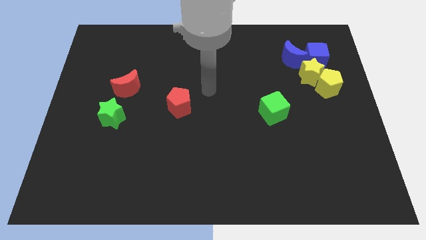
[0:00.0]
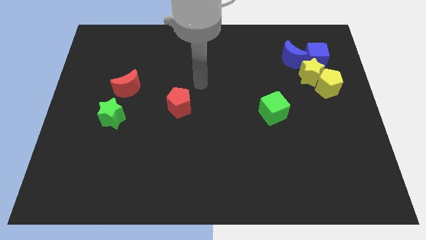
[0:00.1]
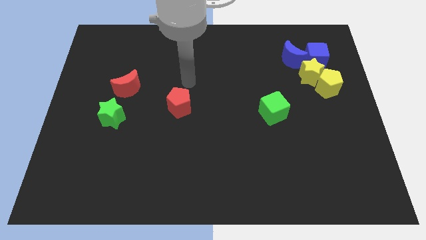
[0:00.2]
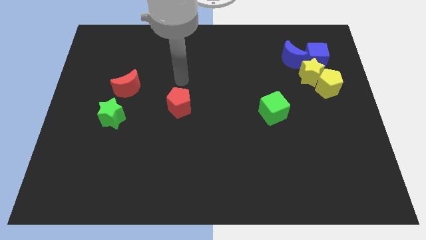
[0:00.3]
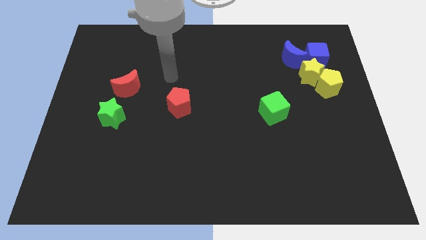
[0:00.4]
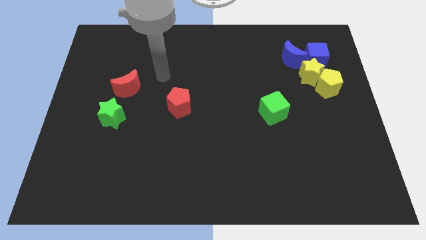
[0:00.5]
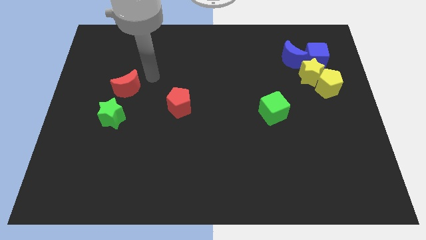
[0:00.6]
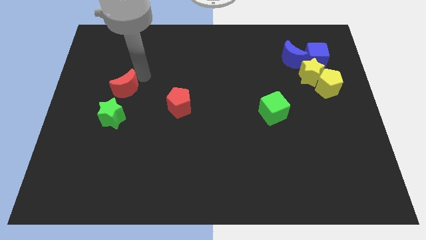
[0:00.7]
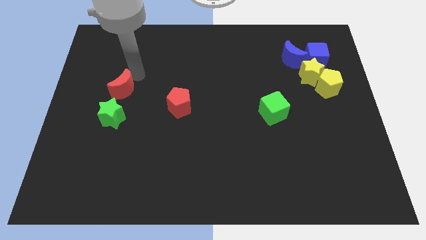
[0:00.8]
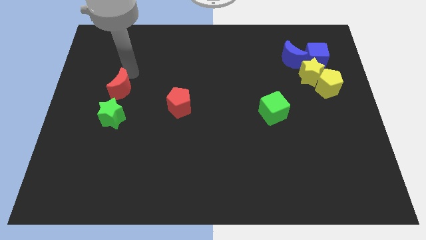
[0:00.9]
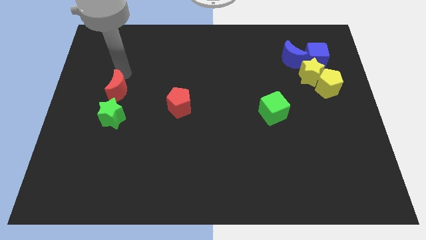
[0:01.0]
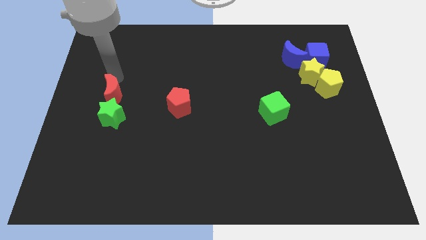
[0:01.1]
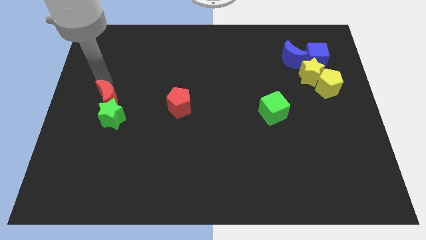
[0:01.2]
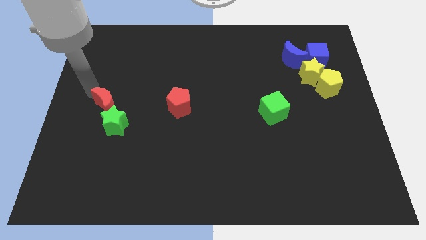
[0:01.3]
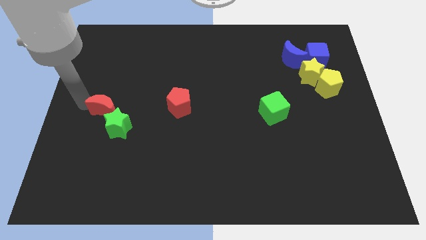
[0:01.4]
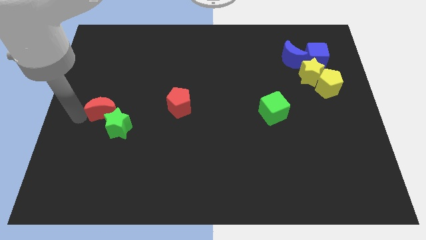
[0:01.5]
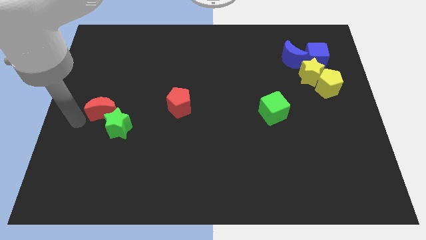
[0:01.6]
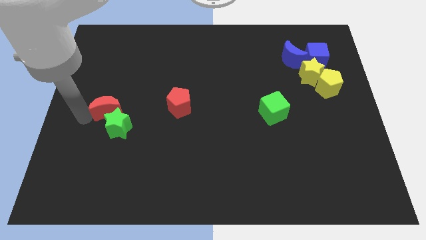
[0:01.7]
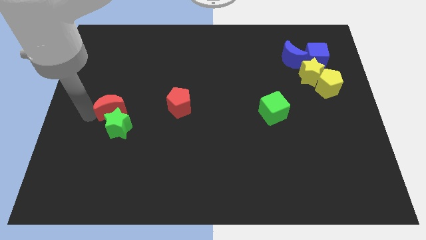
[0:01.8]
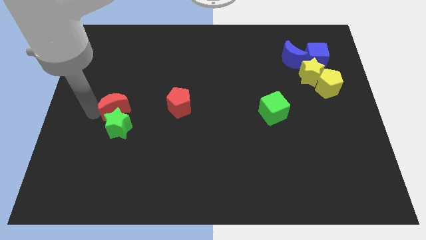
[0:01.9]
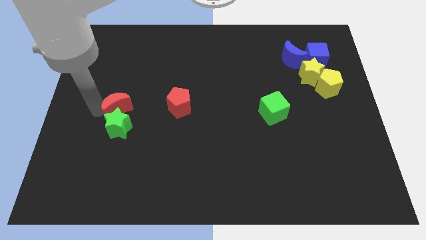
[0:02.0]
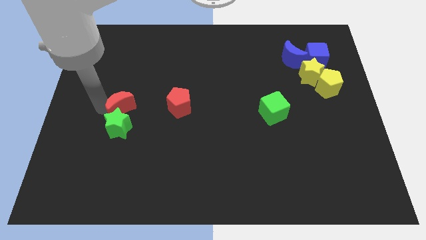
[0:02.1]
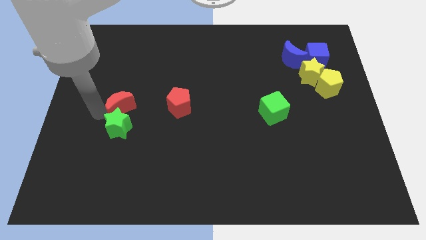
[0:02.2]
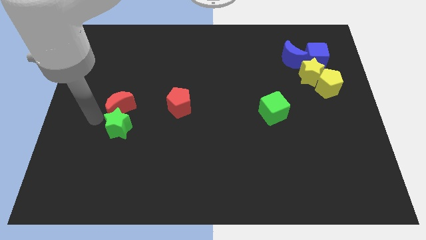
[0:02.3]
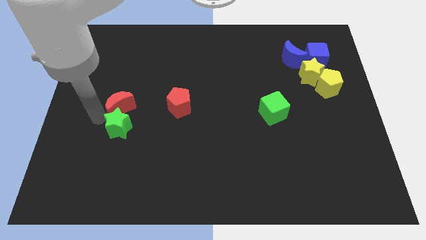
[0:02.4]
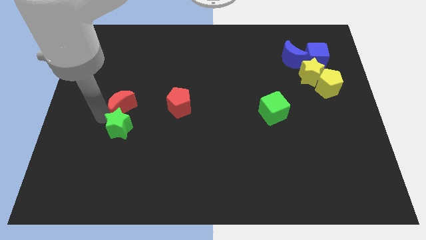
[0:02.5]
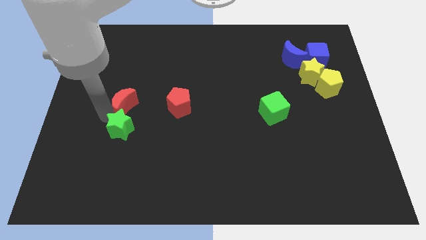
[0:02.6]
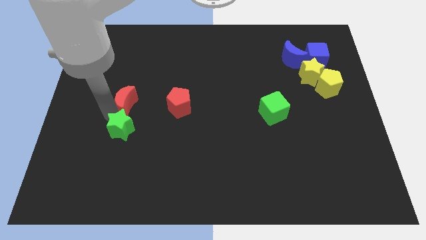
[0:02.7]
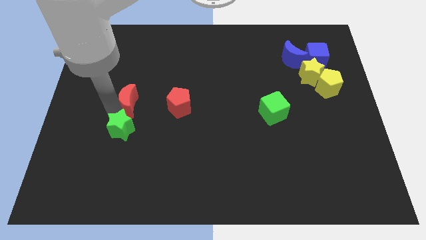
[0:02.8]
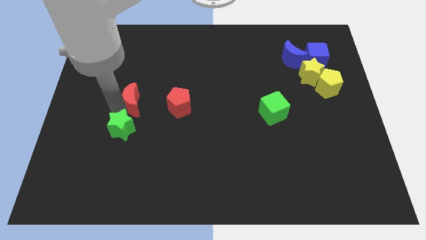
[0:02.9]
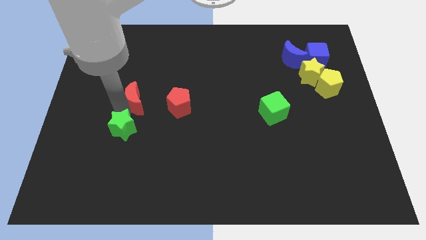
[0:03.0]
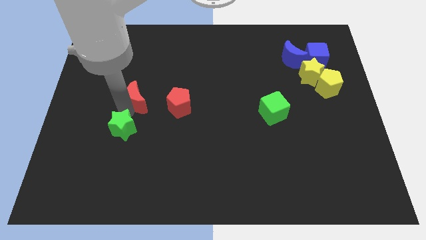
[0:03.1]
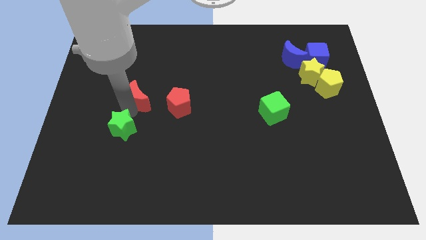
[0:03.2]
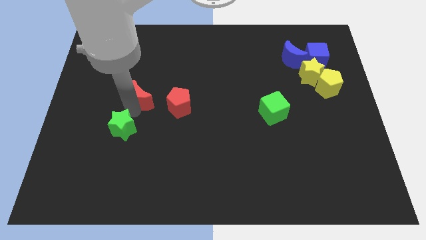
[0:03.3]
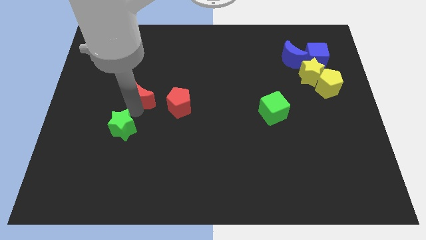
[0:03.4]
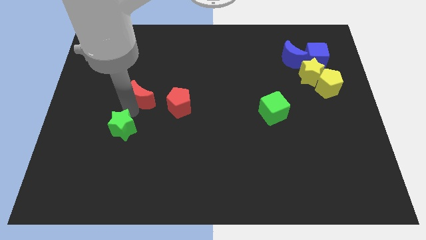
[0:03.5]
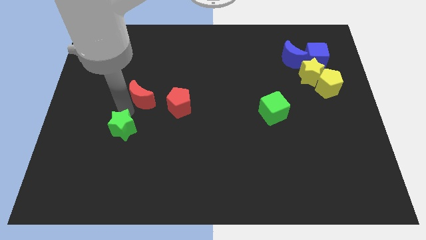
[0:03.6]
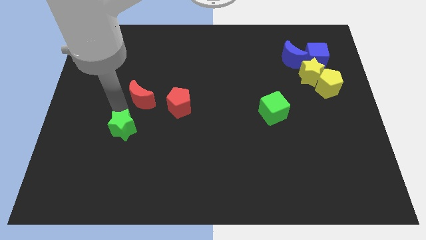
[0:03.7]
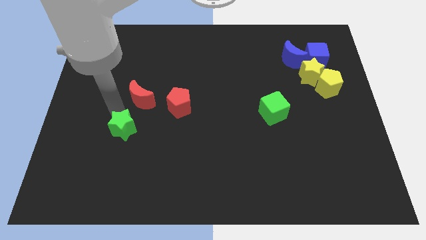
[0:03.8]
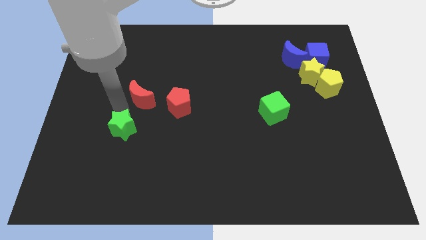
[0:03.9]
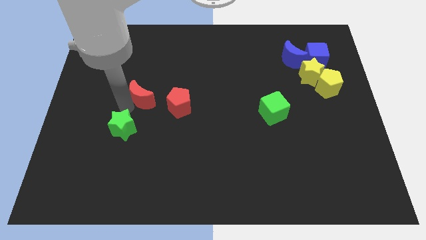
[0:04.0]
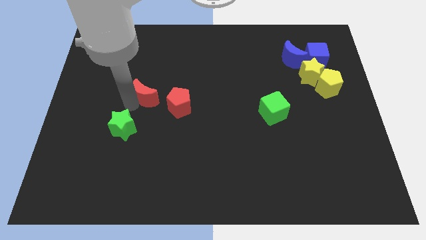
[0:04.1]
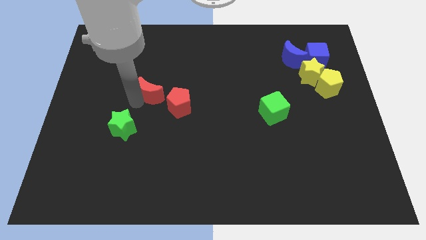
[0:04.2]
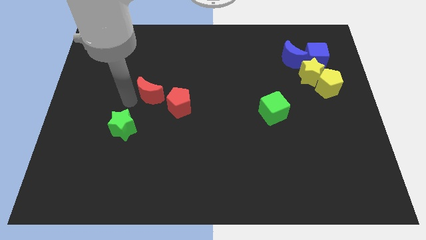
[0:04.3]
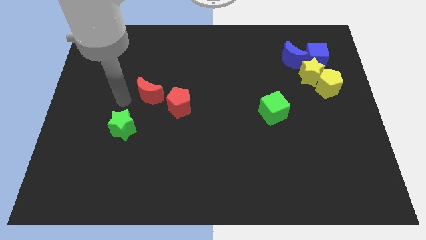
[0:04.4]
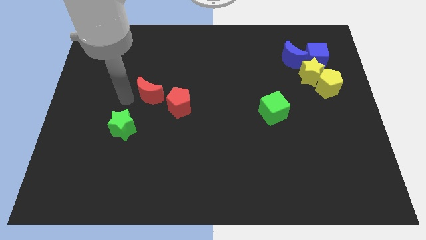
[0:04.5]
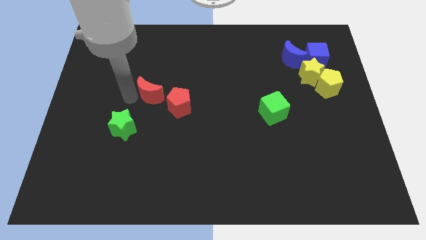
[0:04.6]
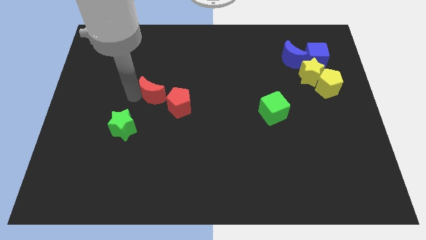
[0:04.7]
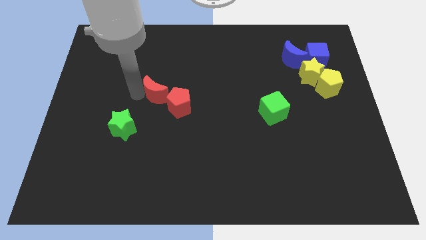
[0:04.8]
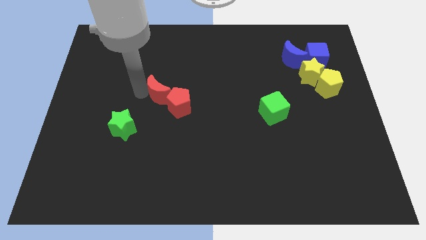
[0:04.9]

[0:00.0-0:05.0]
push the red moon right a little bit

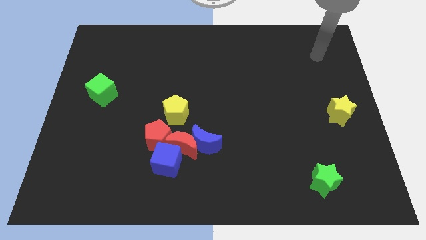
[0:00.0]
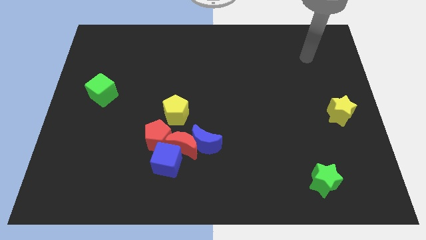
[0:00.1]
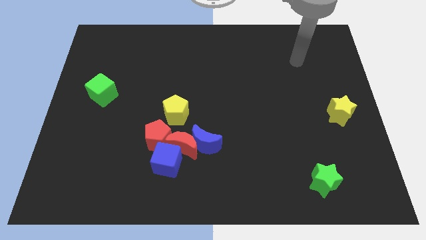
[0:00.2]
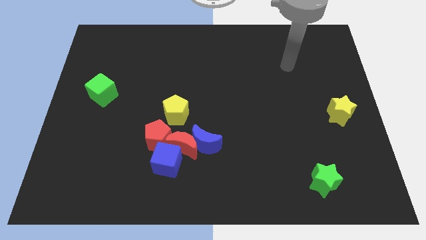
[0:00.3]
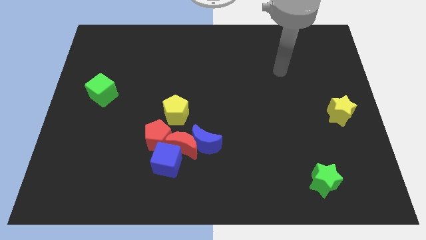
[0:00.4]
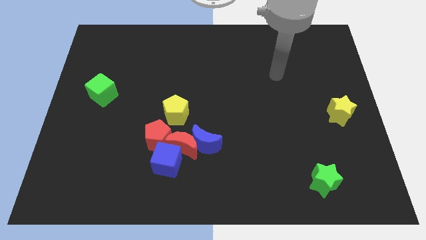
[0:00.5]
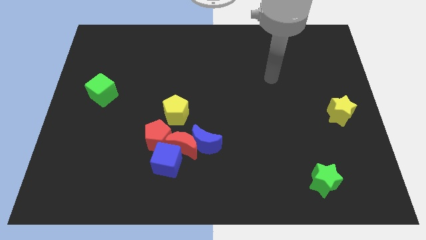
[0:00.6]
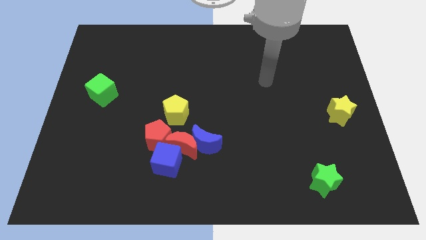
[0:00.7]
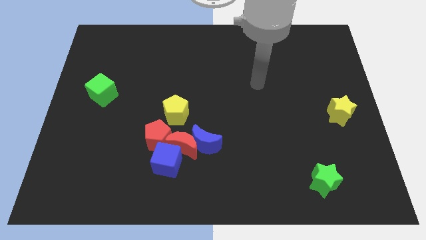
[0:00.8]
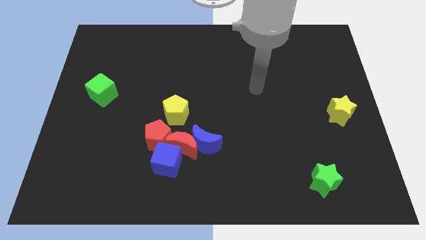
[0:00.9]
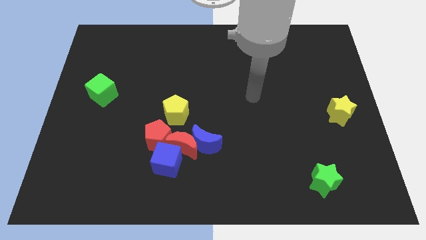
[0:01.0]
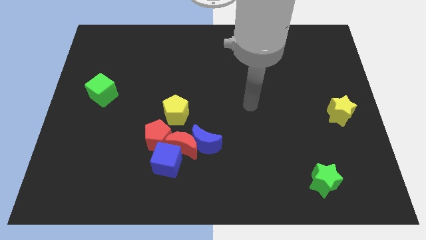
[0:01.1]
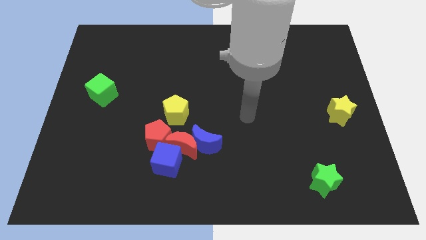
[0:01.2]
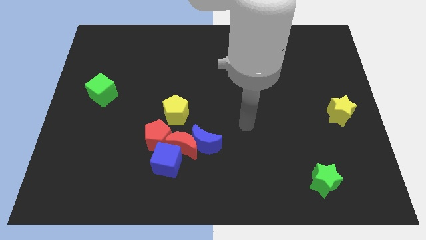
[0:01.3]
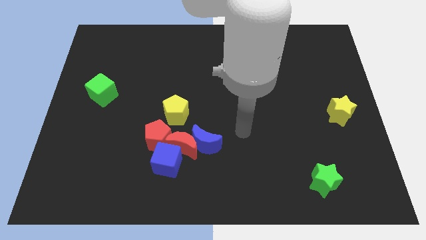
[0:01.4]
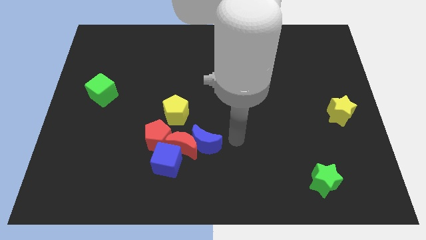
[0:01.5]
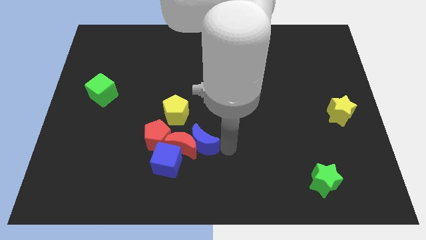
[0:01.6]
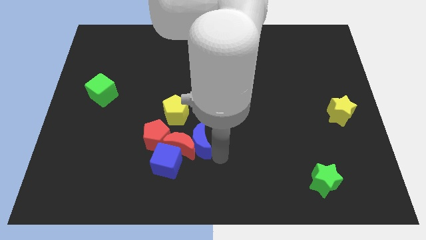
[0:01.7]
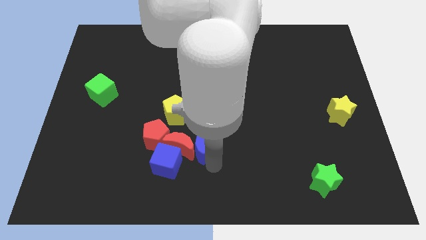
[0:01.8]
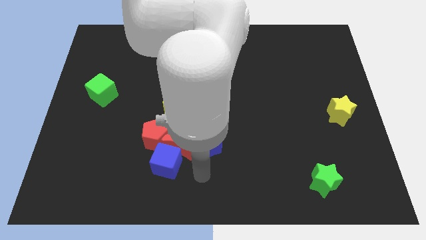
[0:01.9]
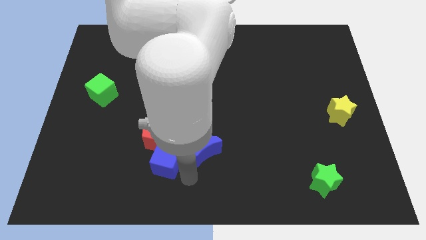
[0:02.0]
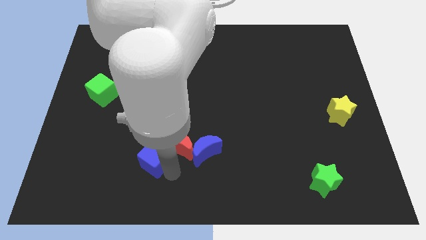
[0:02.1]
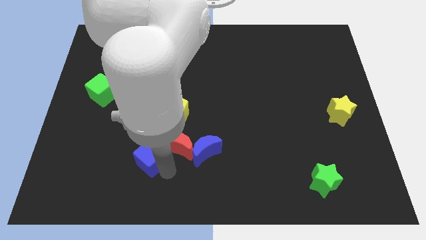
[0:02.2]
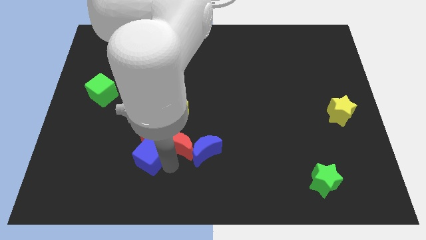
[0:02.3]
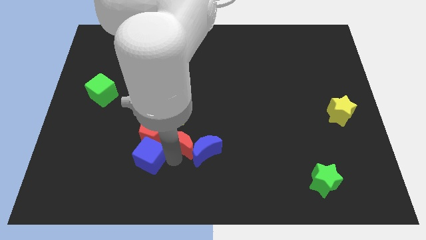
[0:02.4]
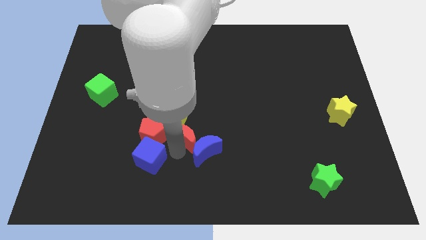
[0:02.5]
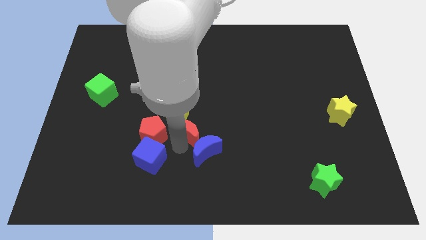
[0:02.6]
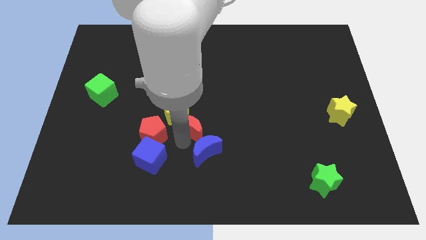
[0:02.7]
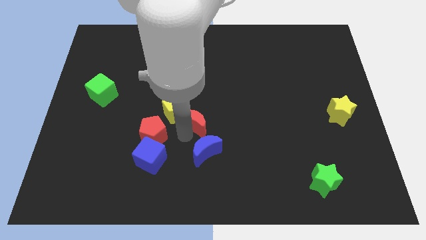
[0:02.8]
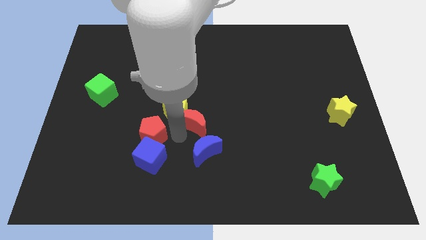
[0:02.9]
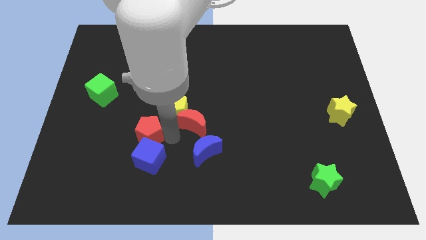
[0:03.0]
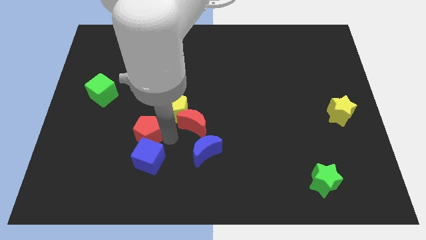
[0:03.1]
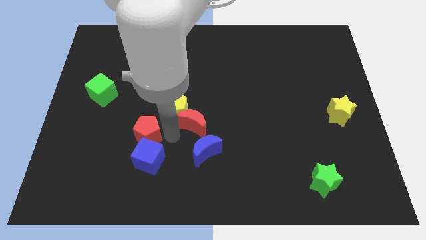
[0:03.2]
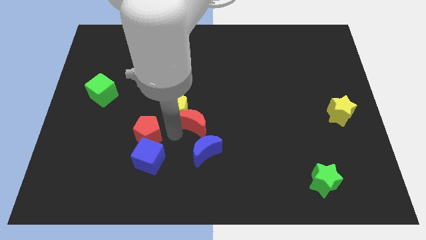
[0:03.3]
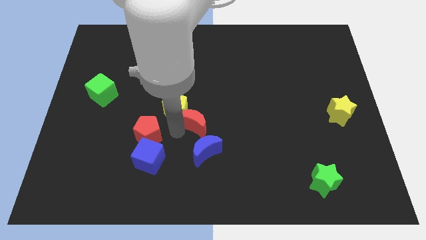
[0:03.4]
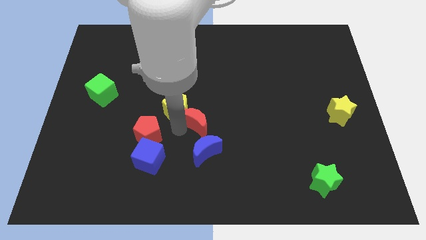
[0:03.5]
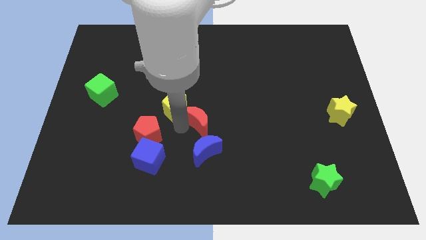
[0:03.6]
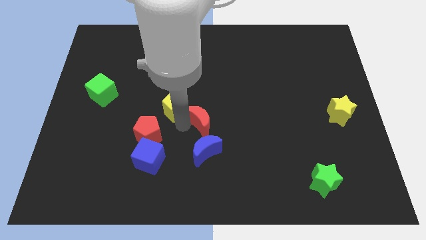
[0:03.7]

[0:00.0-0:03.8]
push the red moon slightly diagonally upwards and to the right

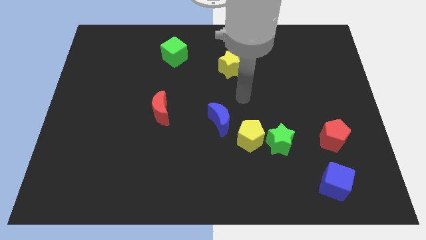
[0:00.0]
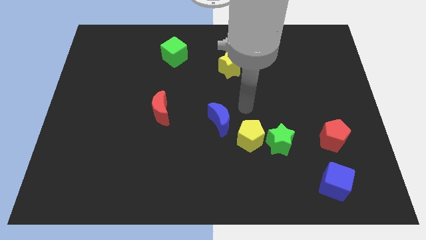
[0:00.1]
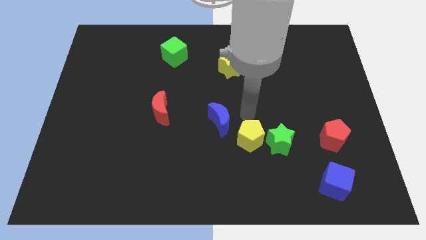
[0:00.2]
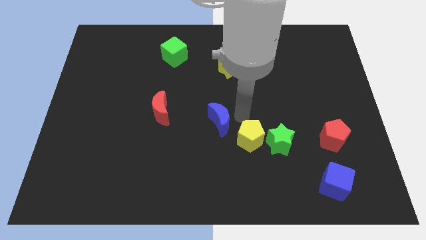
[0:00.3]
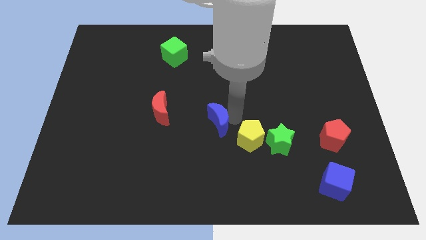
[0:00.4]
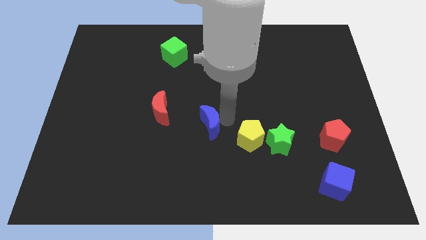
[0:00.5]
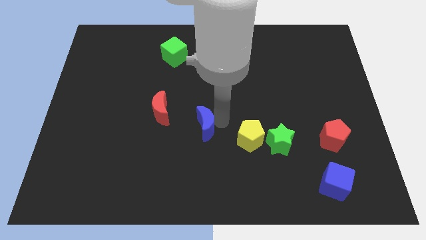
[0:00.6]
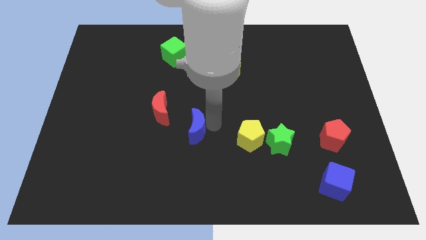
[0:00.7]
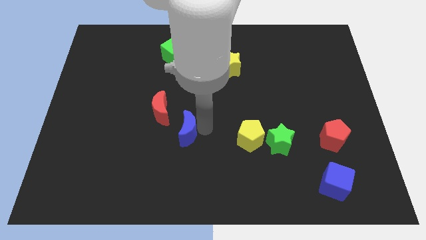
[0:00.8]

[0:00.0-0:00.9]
slightly slide the blue moon left
